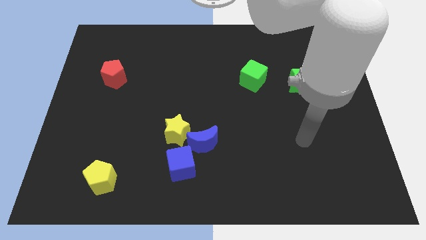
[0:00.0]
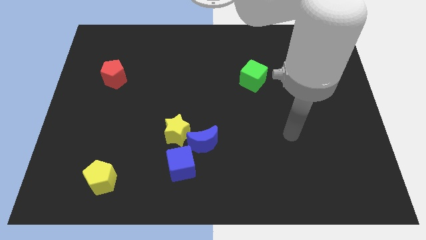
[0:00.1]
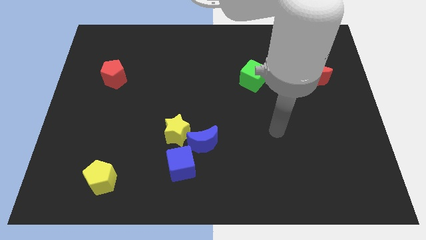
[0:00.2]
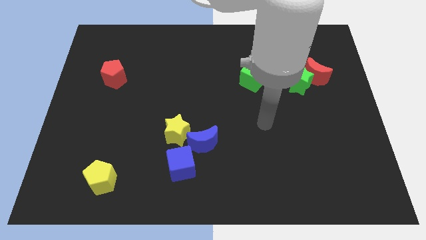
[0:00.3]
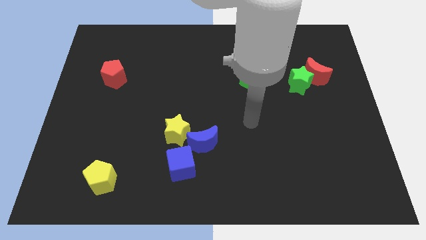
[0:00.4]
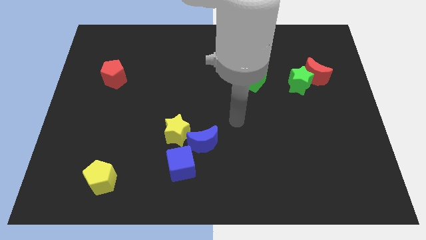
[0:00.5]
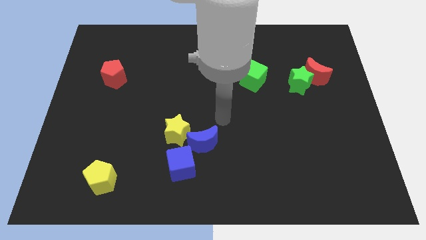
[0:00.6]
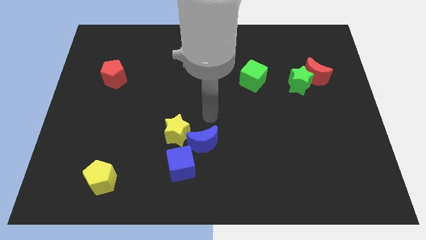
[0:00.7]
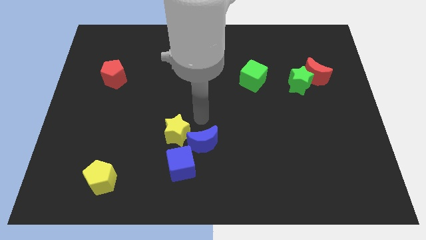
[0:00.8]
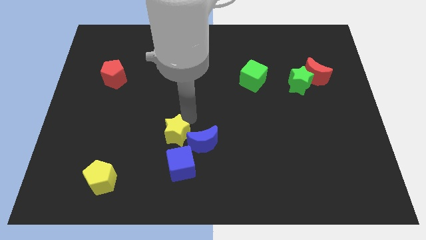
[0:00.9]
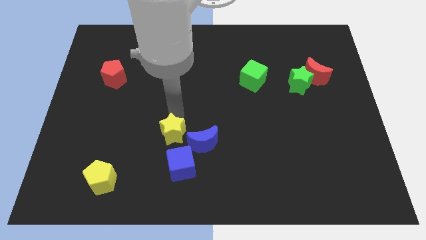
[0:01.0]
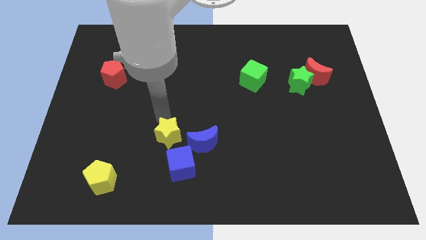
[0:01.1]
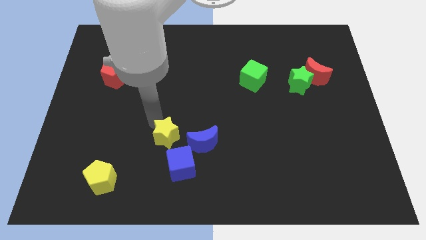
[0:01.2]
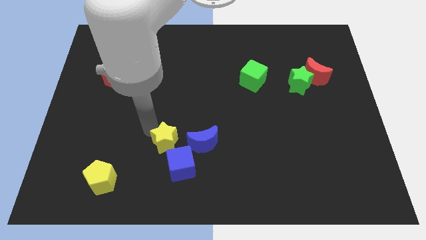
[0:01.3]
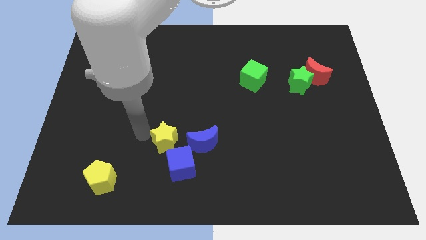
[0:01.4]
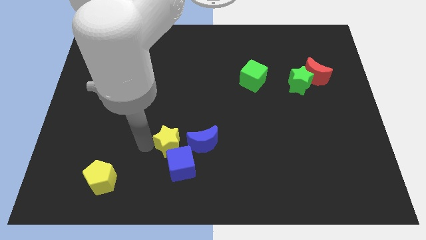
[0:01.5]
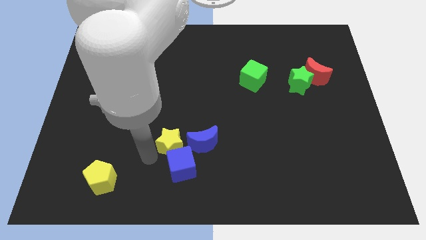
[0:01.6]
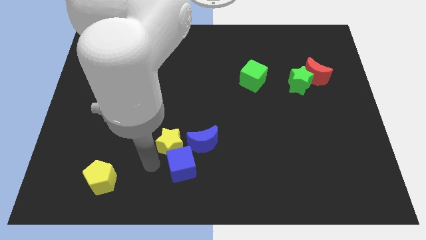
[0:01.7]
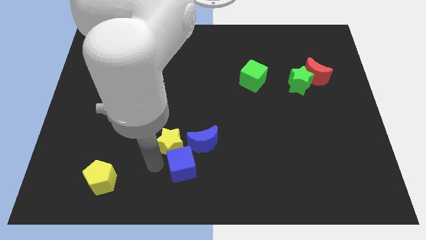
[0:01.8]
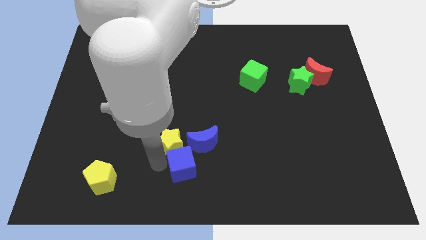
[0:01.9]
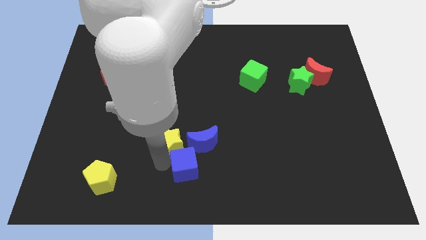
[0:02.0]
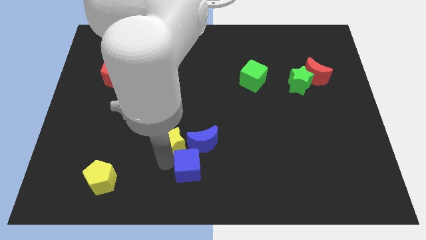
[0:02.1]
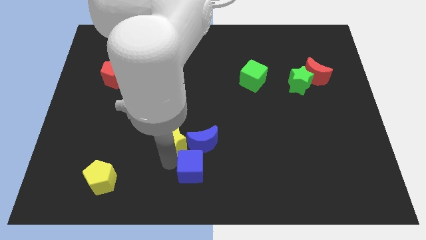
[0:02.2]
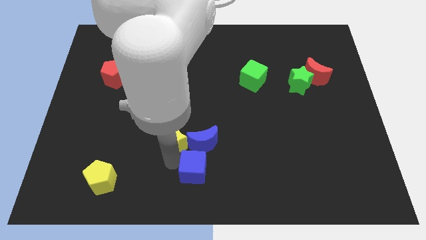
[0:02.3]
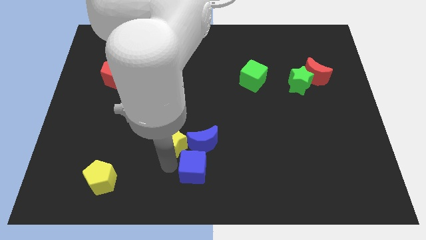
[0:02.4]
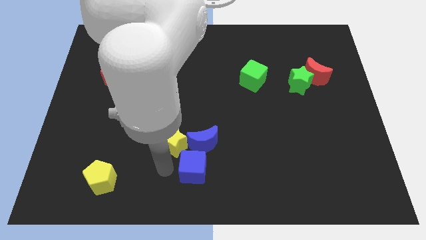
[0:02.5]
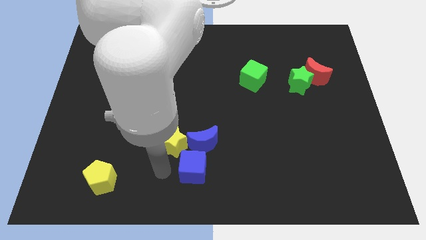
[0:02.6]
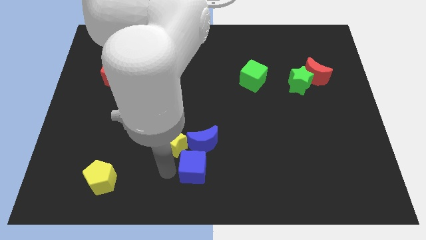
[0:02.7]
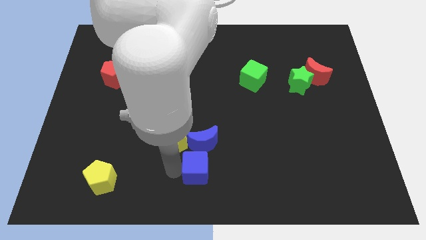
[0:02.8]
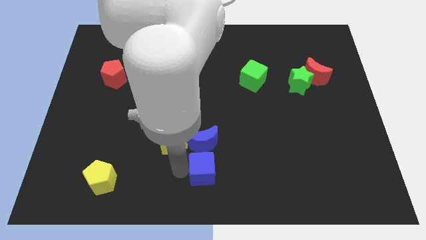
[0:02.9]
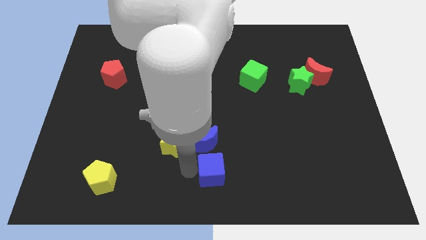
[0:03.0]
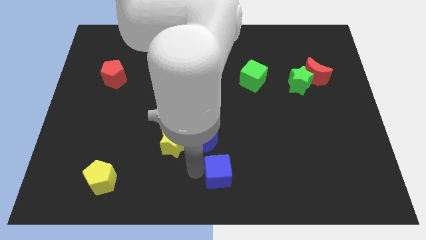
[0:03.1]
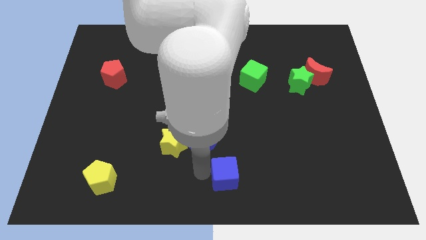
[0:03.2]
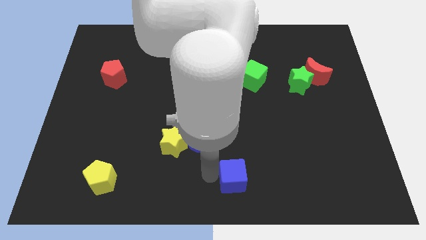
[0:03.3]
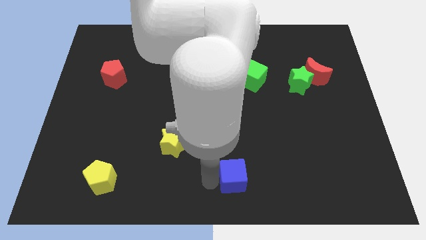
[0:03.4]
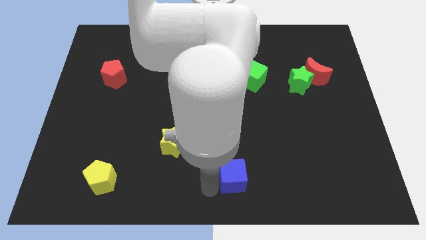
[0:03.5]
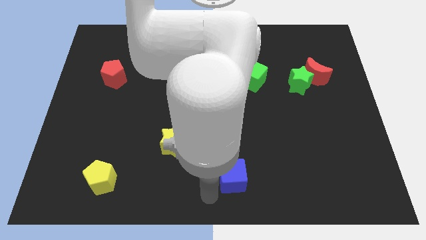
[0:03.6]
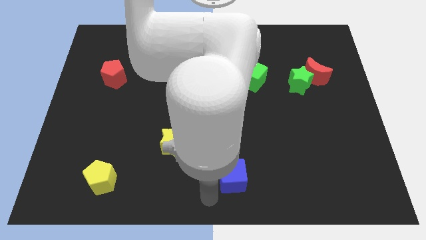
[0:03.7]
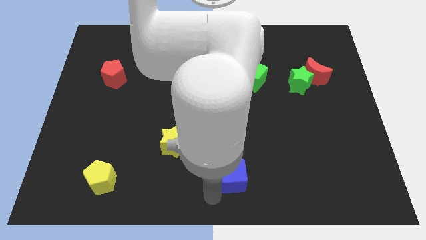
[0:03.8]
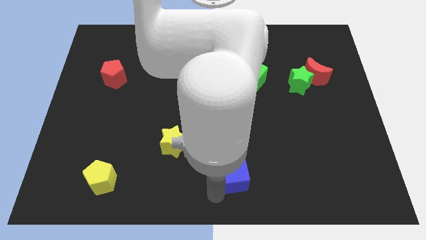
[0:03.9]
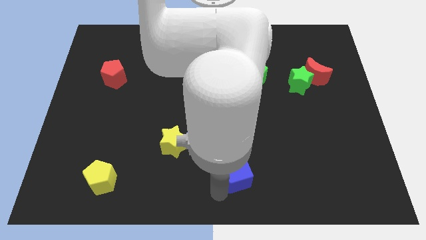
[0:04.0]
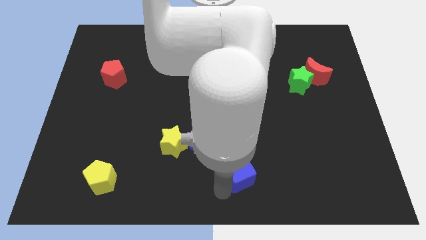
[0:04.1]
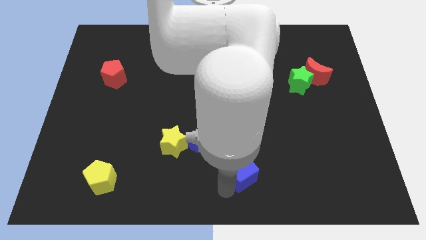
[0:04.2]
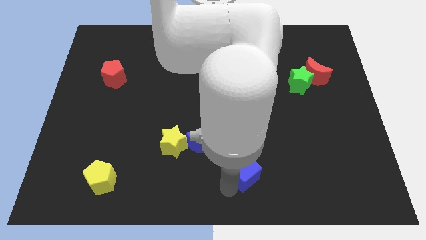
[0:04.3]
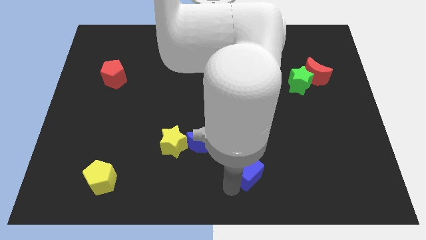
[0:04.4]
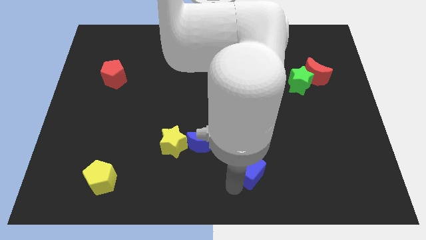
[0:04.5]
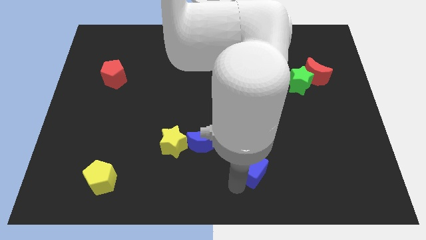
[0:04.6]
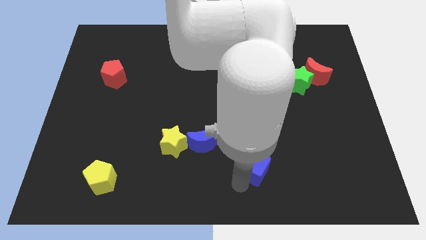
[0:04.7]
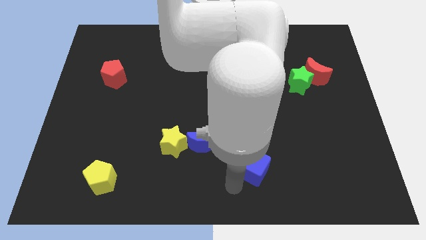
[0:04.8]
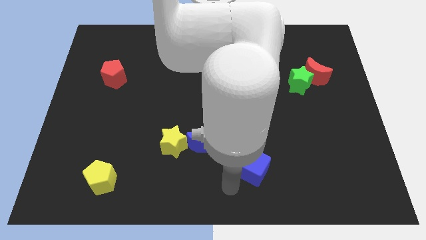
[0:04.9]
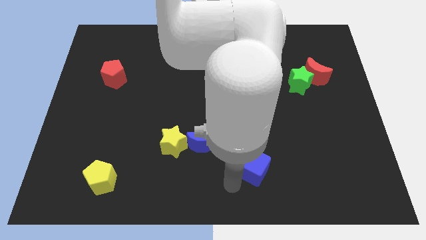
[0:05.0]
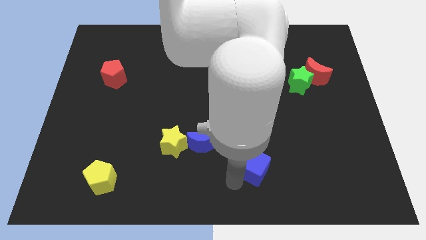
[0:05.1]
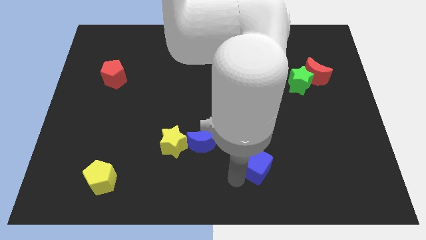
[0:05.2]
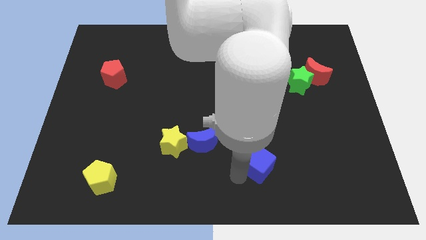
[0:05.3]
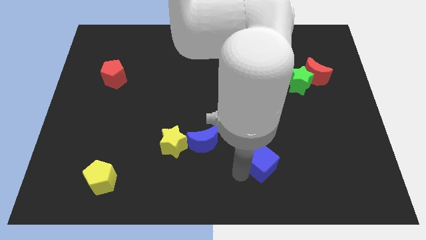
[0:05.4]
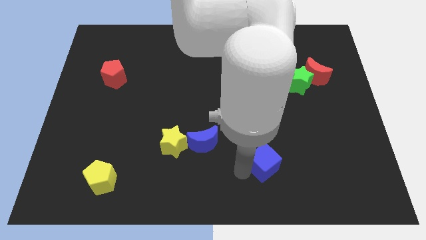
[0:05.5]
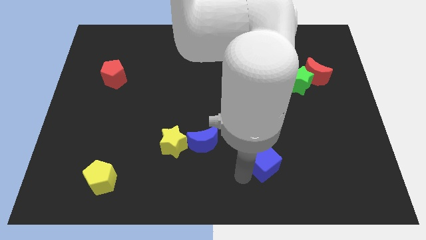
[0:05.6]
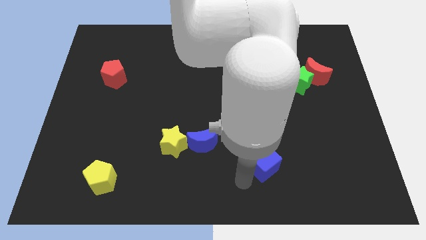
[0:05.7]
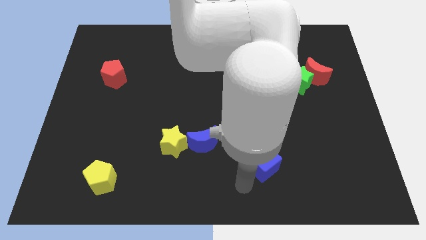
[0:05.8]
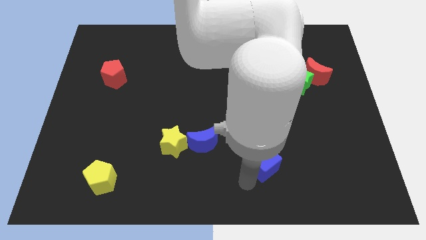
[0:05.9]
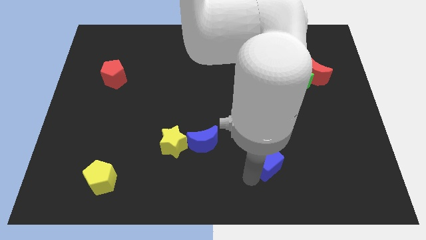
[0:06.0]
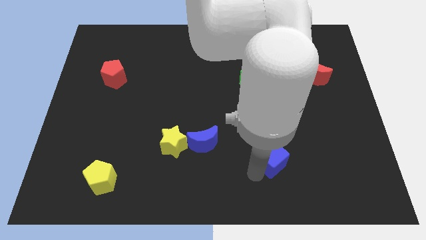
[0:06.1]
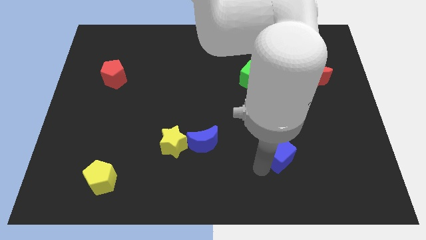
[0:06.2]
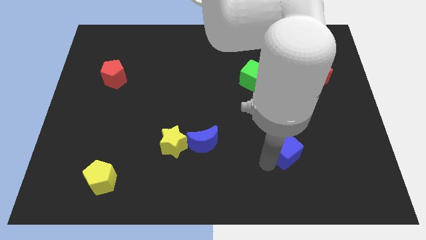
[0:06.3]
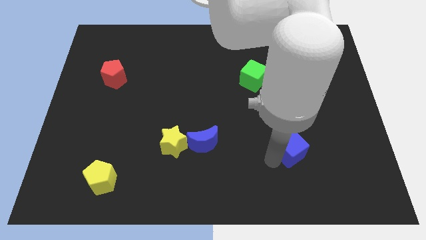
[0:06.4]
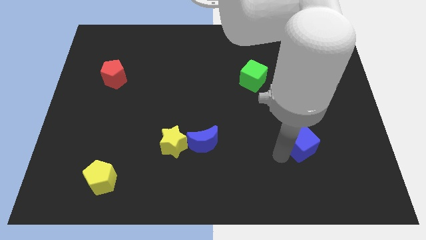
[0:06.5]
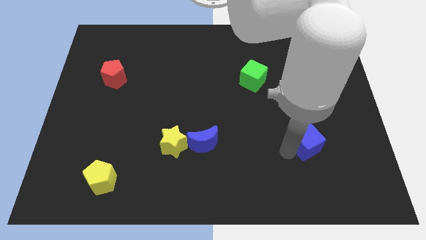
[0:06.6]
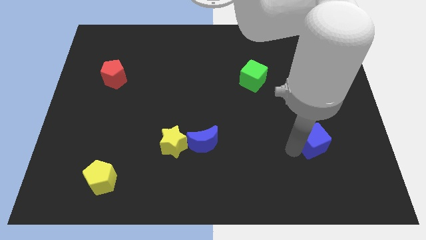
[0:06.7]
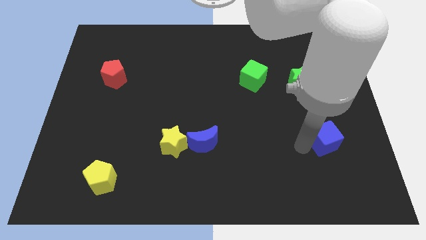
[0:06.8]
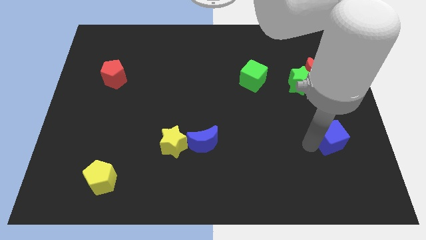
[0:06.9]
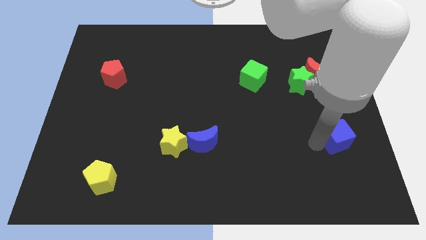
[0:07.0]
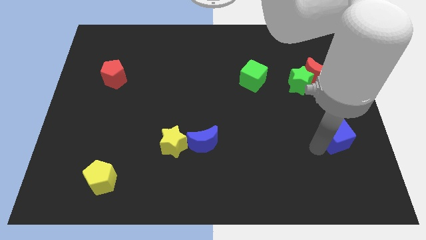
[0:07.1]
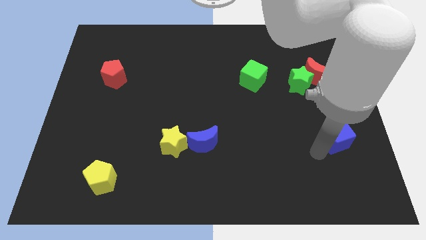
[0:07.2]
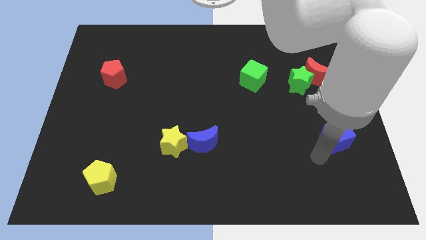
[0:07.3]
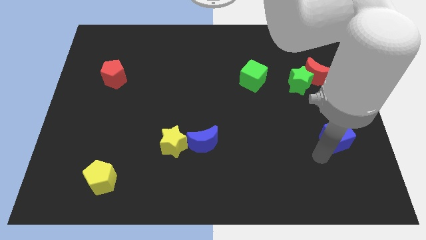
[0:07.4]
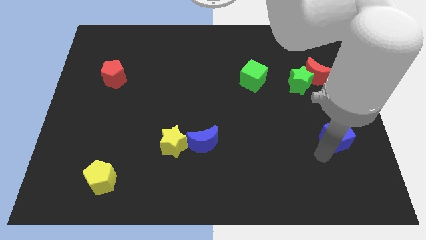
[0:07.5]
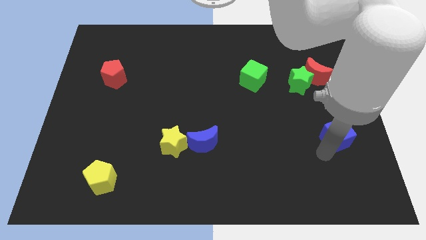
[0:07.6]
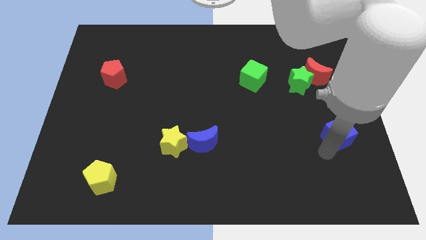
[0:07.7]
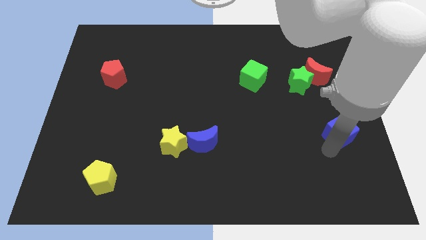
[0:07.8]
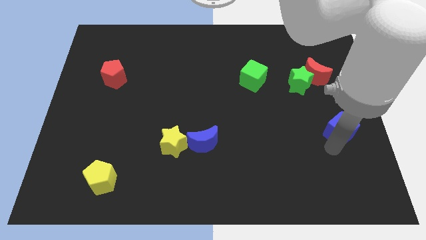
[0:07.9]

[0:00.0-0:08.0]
move the blue cube to the center right
